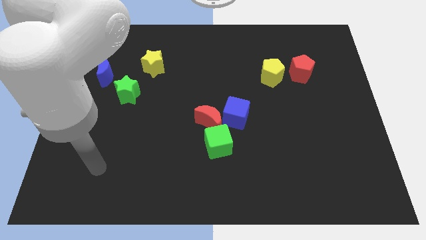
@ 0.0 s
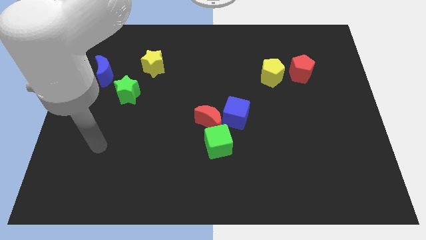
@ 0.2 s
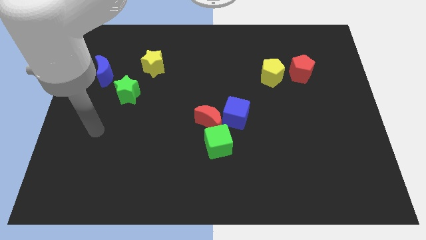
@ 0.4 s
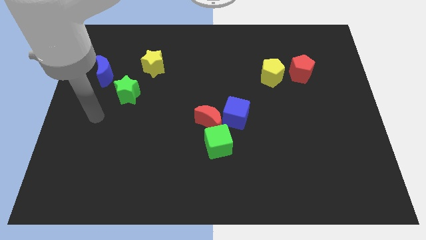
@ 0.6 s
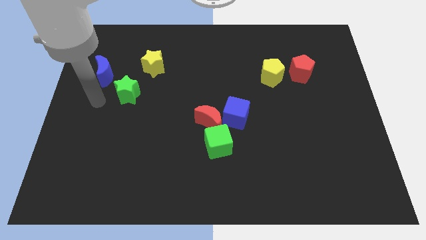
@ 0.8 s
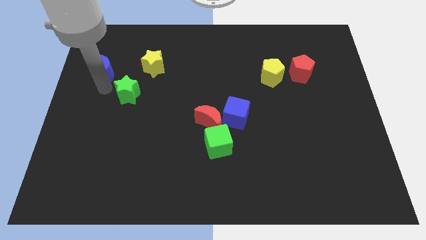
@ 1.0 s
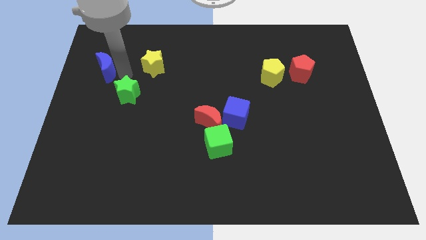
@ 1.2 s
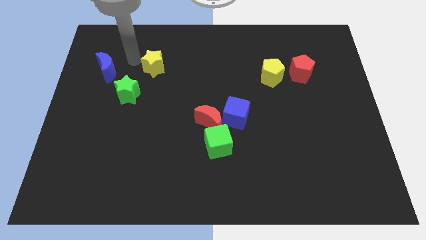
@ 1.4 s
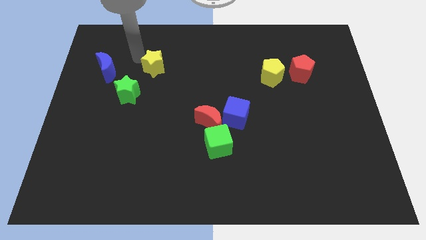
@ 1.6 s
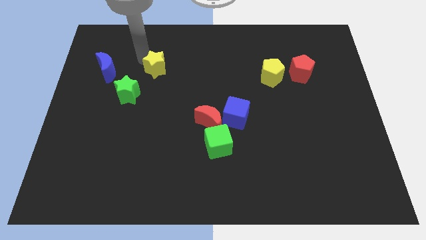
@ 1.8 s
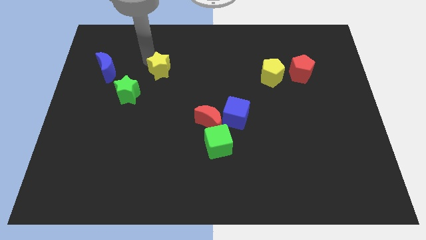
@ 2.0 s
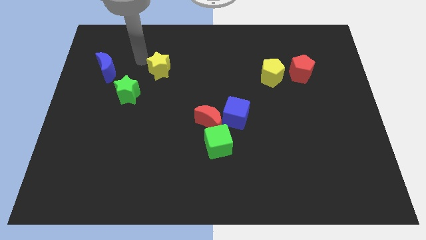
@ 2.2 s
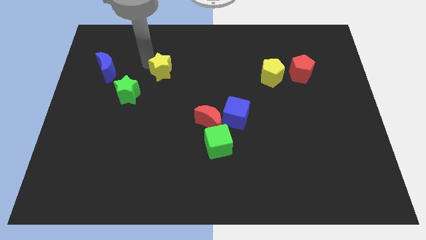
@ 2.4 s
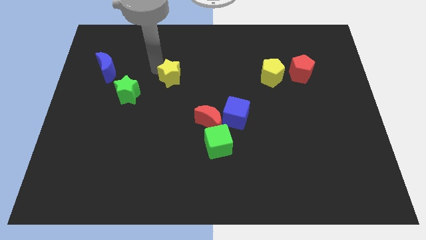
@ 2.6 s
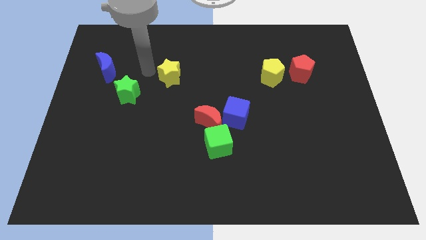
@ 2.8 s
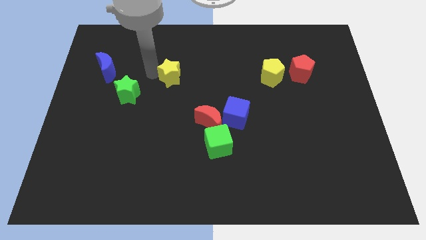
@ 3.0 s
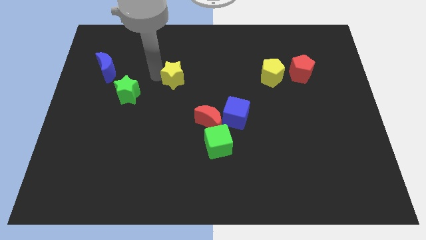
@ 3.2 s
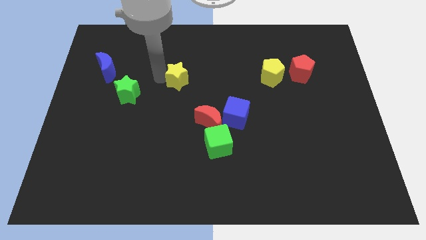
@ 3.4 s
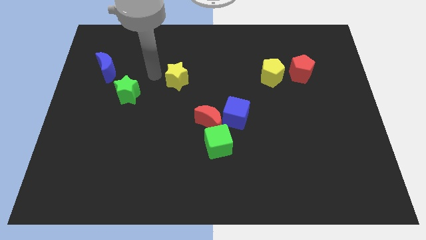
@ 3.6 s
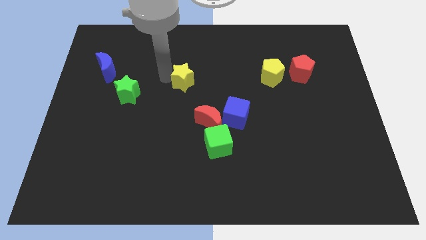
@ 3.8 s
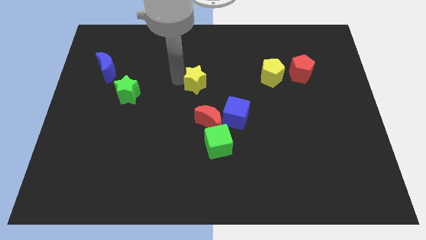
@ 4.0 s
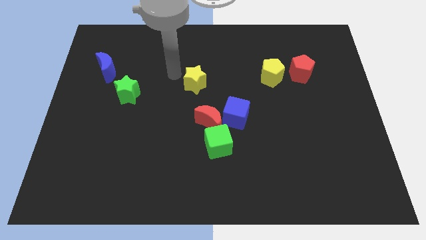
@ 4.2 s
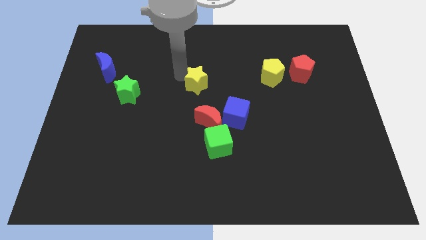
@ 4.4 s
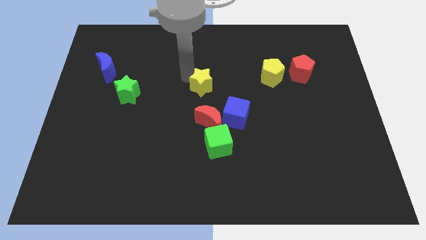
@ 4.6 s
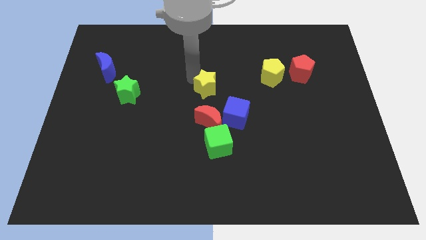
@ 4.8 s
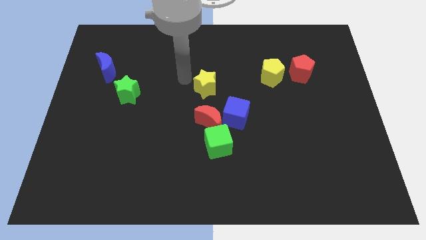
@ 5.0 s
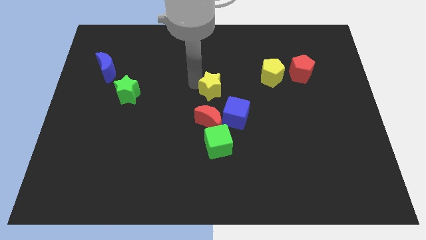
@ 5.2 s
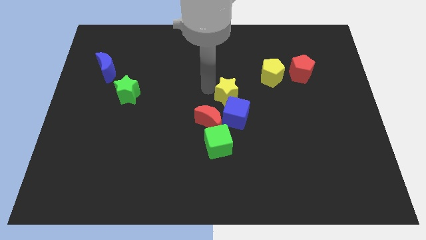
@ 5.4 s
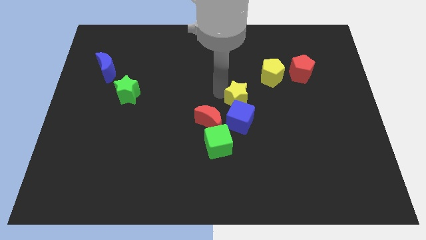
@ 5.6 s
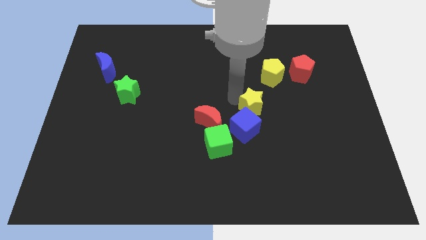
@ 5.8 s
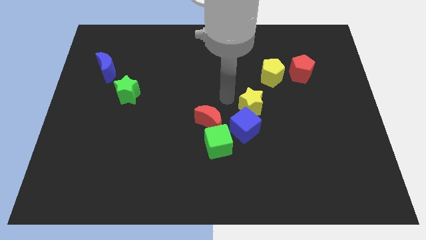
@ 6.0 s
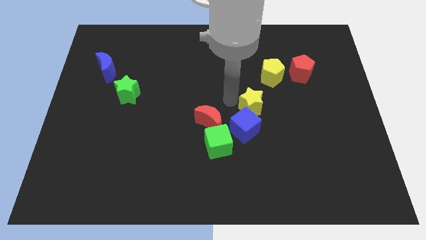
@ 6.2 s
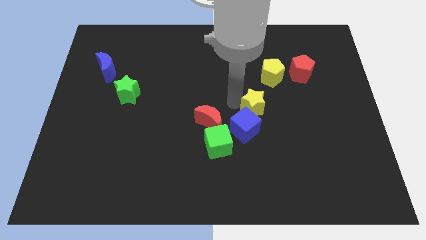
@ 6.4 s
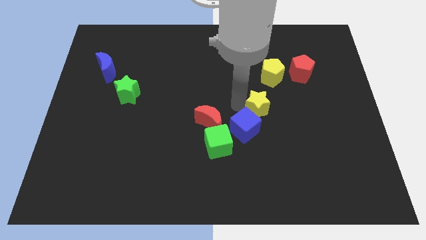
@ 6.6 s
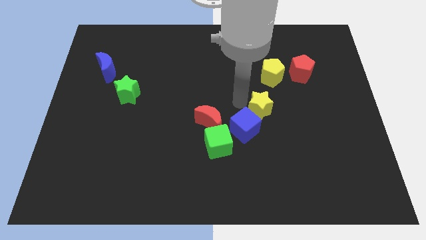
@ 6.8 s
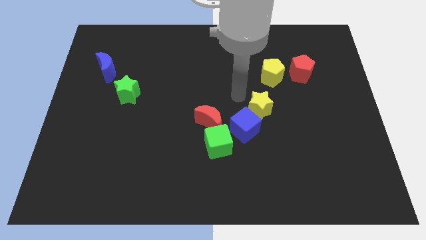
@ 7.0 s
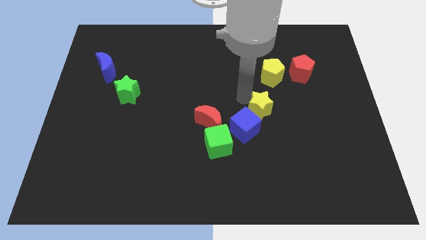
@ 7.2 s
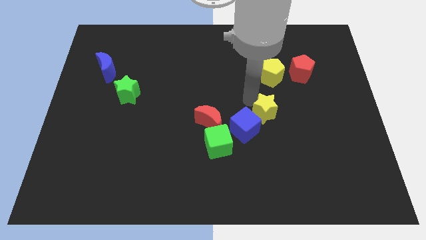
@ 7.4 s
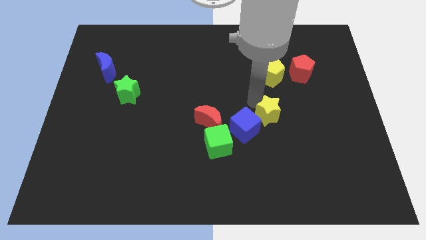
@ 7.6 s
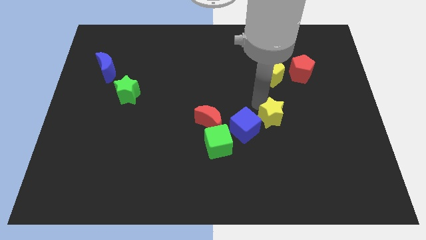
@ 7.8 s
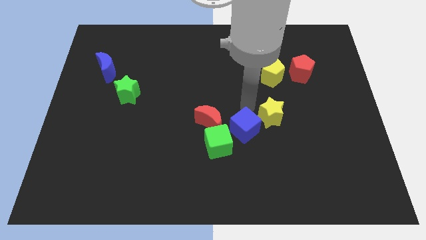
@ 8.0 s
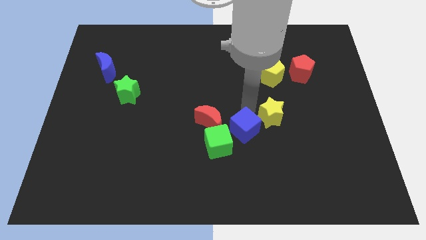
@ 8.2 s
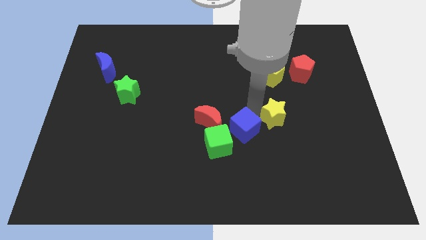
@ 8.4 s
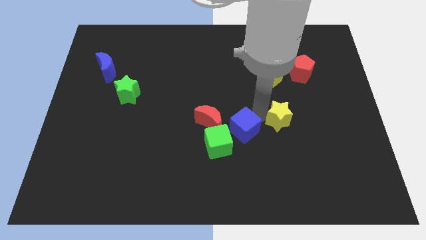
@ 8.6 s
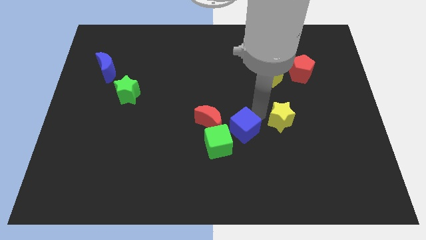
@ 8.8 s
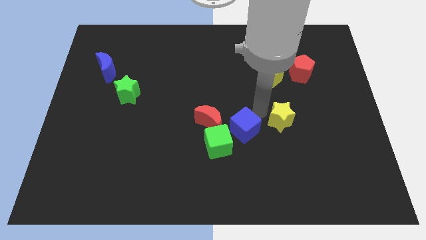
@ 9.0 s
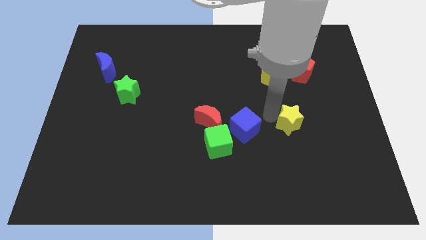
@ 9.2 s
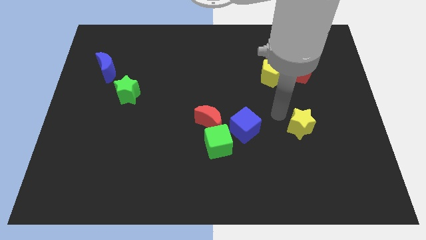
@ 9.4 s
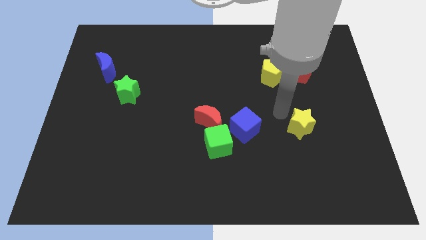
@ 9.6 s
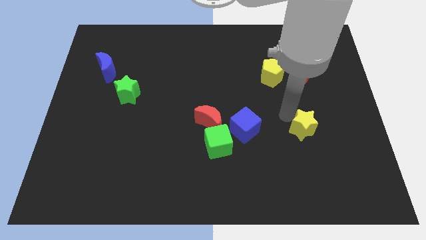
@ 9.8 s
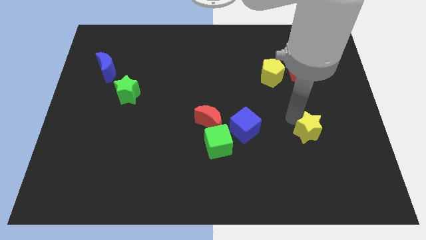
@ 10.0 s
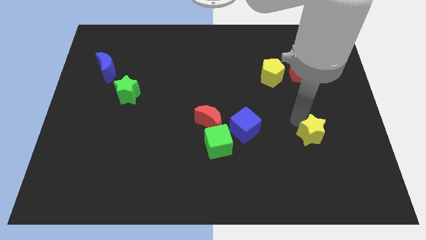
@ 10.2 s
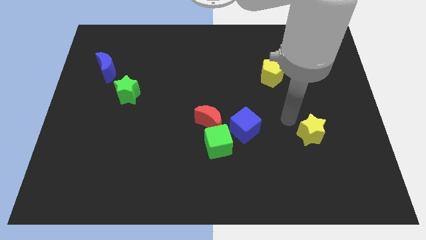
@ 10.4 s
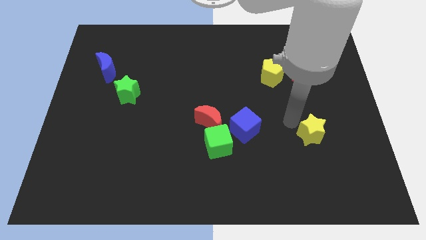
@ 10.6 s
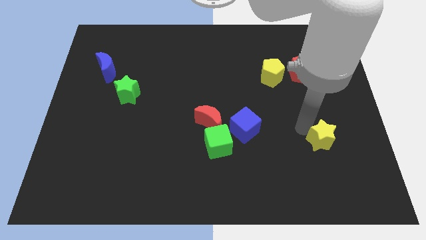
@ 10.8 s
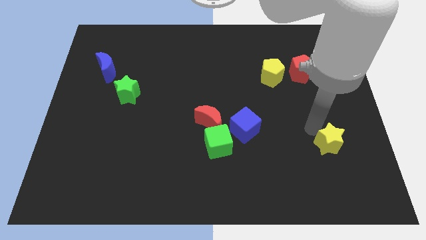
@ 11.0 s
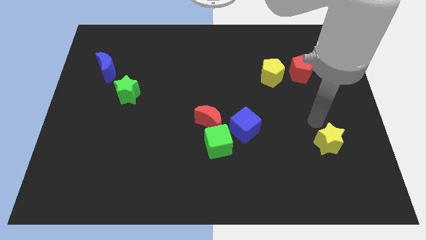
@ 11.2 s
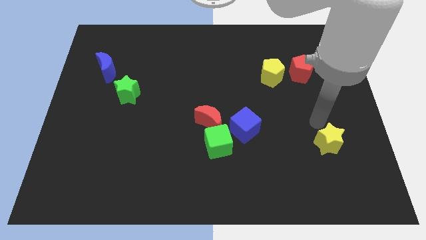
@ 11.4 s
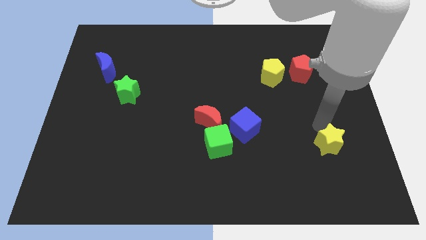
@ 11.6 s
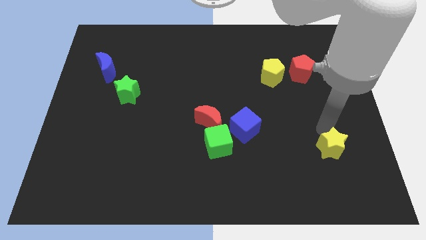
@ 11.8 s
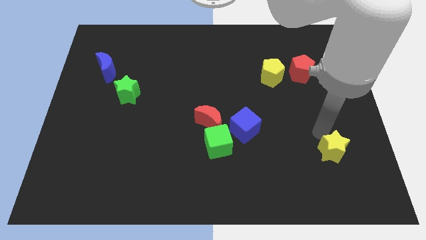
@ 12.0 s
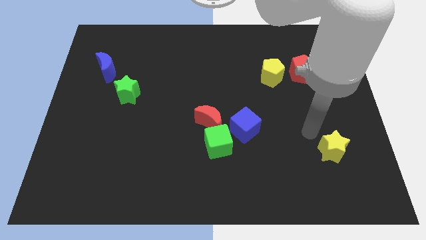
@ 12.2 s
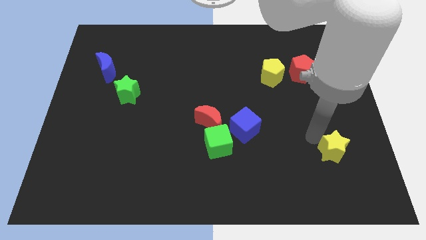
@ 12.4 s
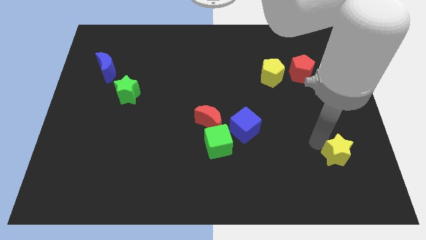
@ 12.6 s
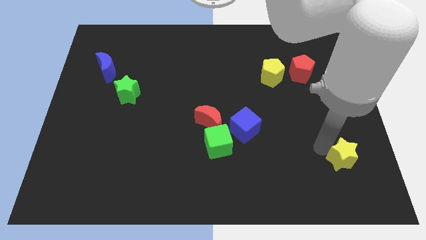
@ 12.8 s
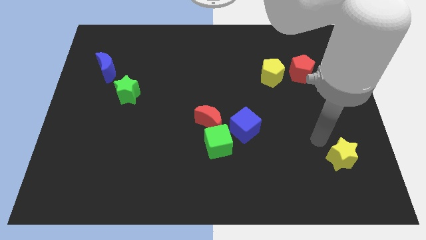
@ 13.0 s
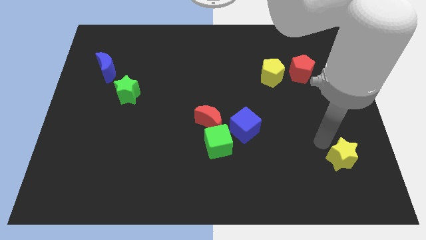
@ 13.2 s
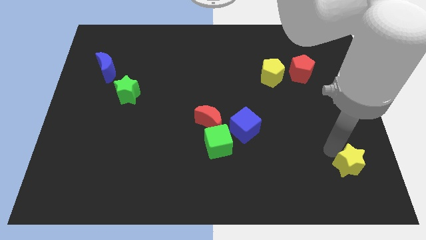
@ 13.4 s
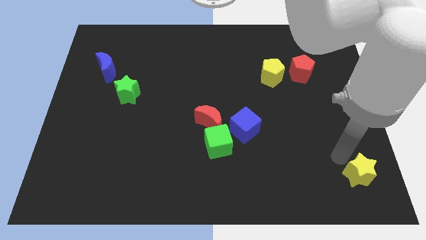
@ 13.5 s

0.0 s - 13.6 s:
move the yellow star to the lower right corner
